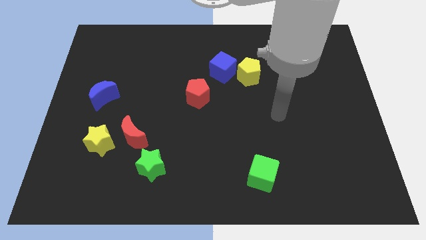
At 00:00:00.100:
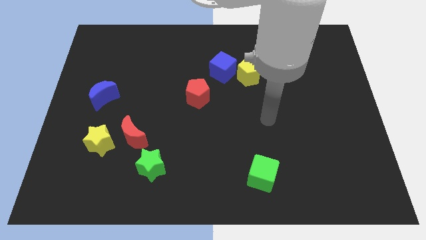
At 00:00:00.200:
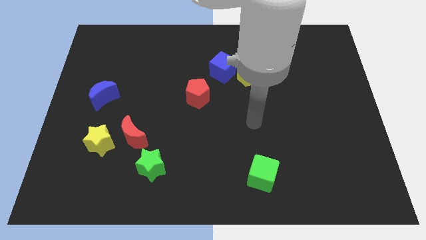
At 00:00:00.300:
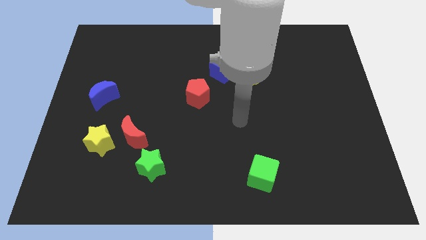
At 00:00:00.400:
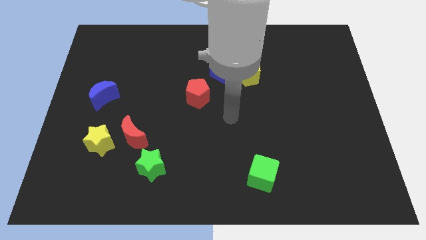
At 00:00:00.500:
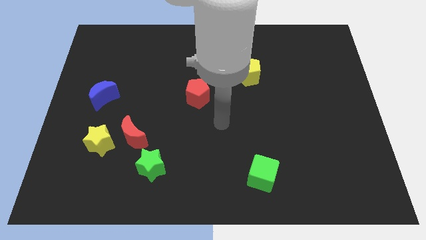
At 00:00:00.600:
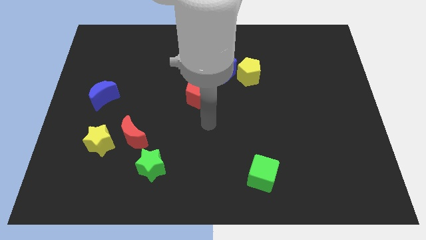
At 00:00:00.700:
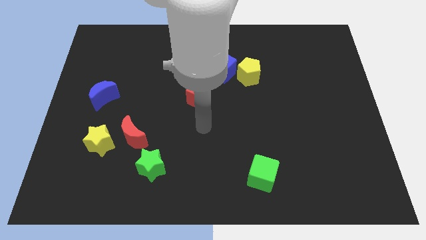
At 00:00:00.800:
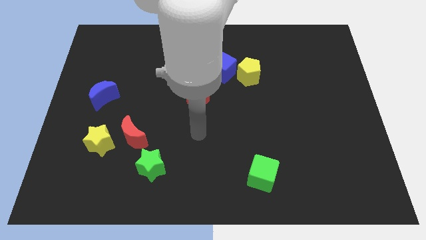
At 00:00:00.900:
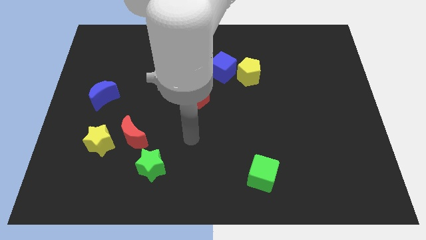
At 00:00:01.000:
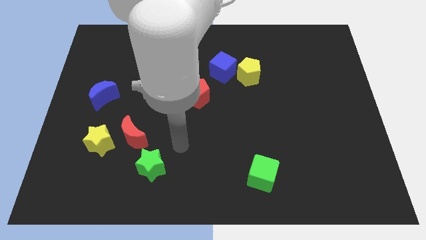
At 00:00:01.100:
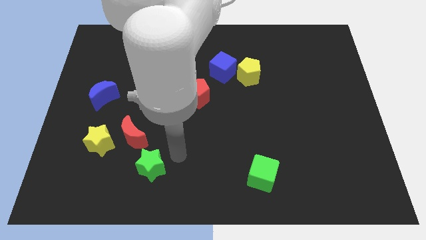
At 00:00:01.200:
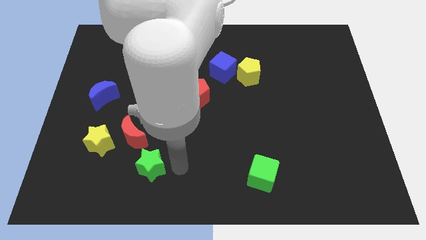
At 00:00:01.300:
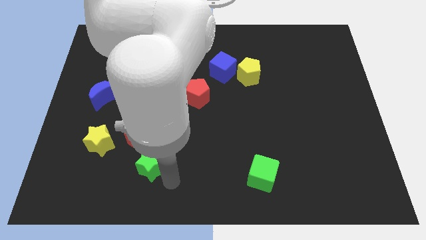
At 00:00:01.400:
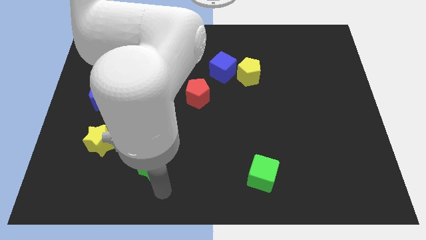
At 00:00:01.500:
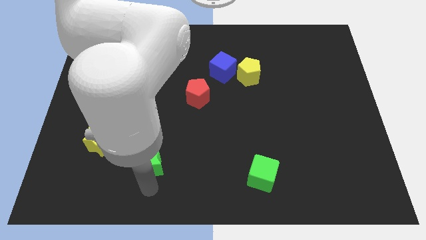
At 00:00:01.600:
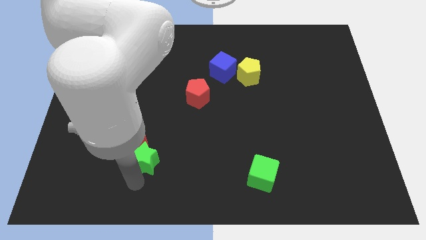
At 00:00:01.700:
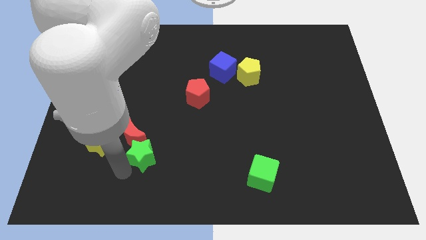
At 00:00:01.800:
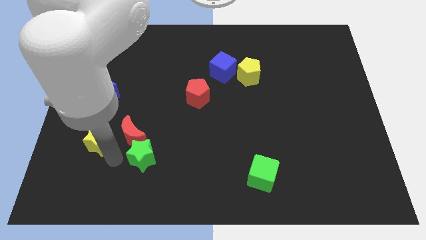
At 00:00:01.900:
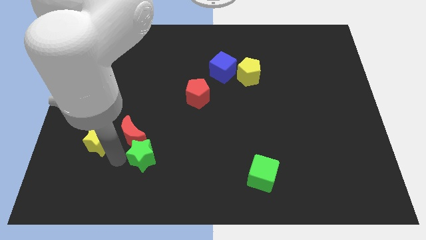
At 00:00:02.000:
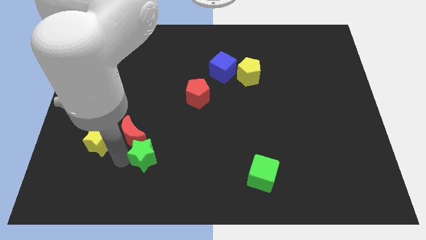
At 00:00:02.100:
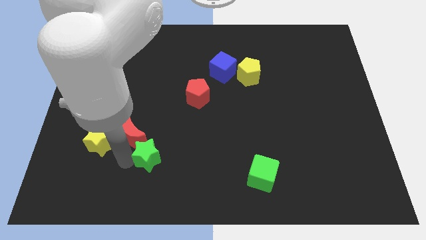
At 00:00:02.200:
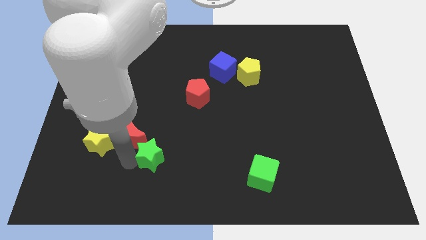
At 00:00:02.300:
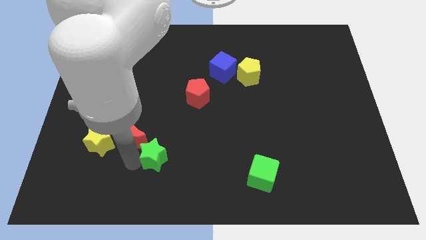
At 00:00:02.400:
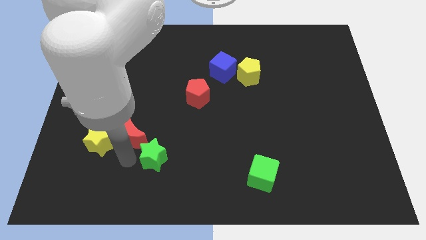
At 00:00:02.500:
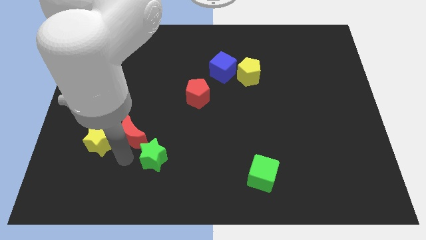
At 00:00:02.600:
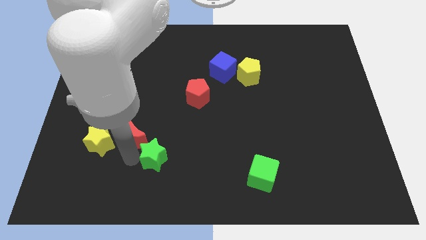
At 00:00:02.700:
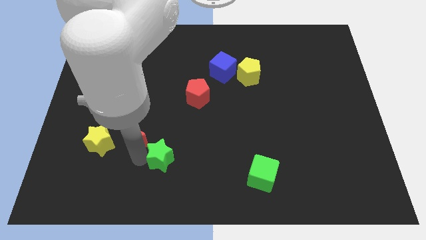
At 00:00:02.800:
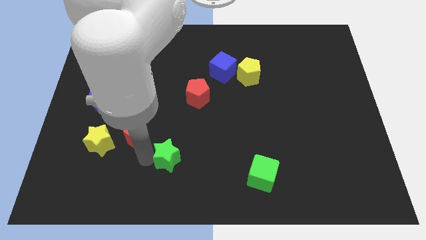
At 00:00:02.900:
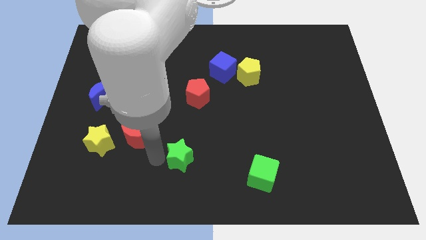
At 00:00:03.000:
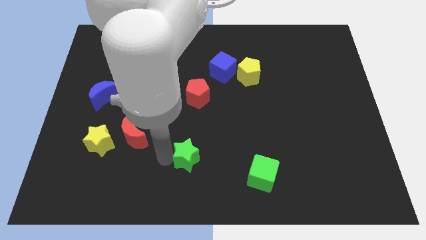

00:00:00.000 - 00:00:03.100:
slide the green star right slightly

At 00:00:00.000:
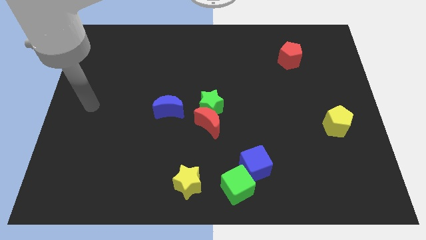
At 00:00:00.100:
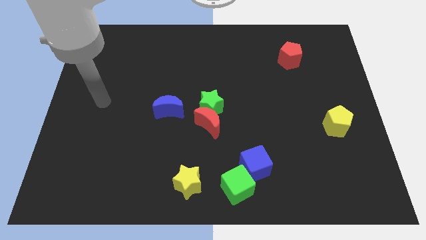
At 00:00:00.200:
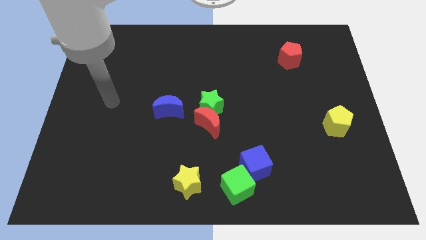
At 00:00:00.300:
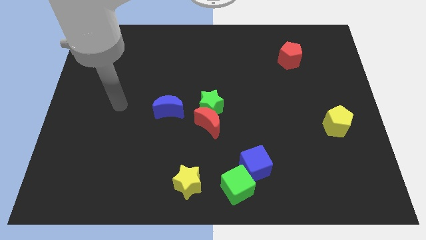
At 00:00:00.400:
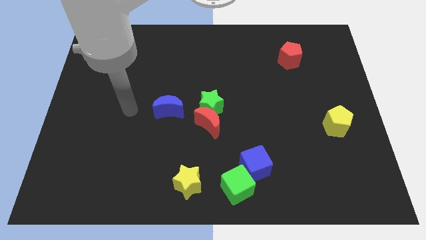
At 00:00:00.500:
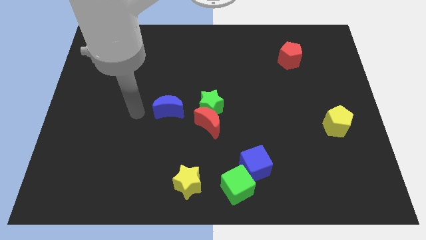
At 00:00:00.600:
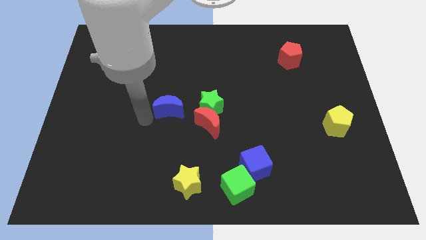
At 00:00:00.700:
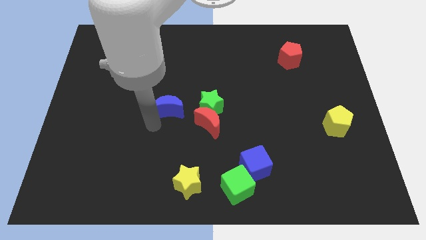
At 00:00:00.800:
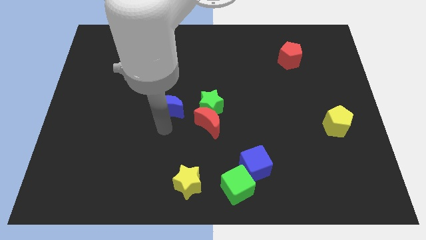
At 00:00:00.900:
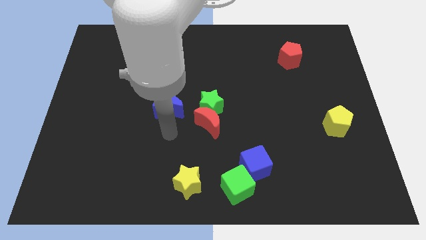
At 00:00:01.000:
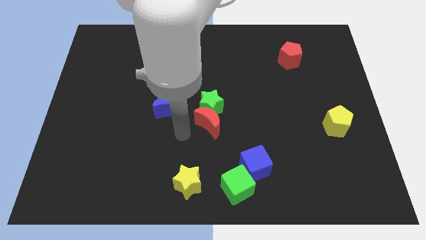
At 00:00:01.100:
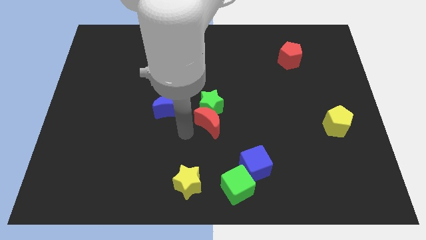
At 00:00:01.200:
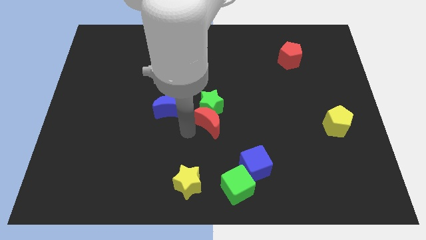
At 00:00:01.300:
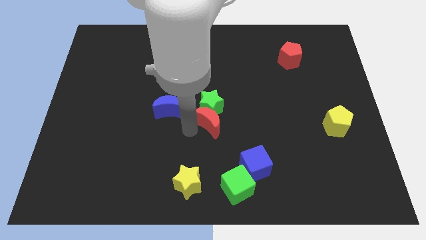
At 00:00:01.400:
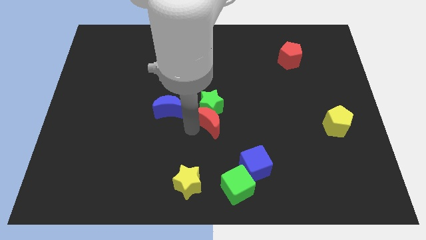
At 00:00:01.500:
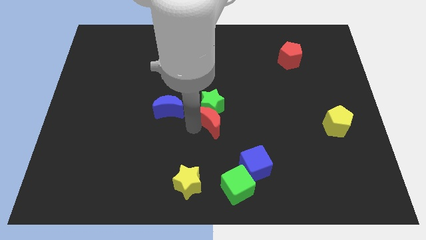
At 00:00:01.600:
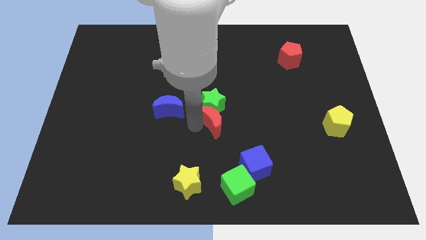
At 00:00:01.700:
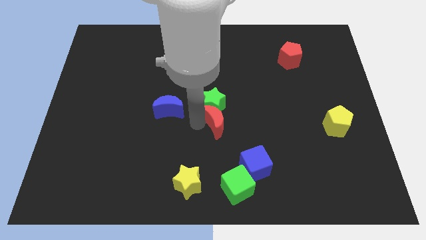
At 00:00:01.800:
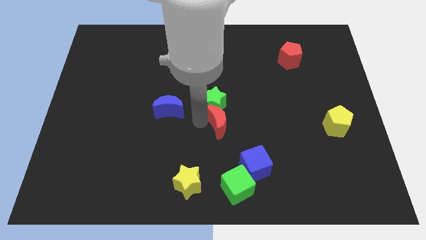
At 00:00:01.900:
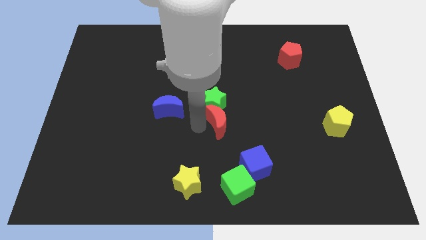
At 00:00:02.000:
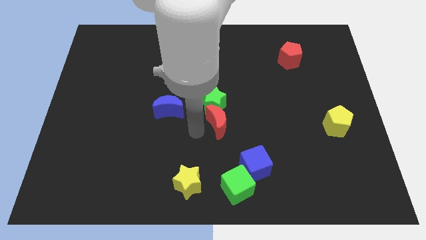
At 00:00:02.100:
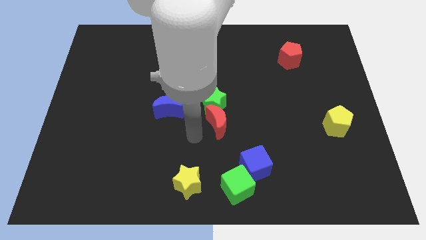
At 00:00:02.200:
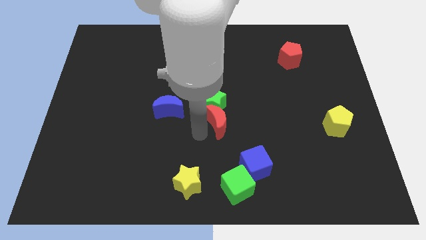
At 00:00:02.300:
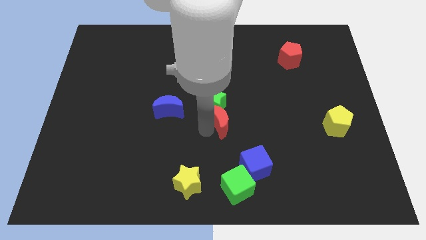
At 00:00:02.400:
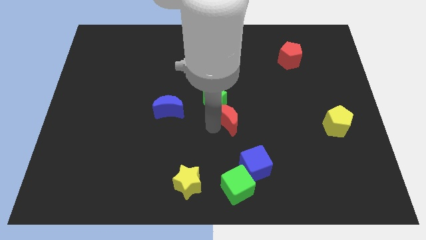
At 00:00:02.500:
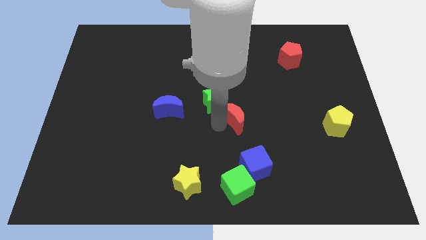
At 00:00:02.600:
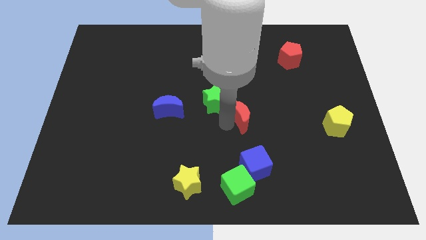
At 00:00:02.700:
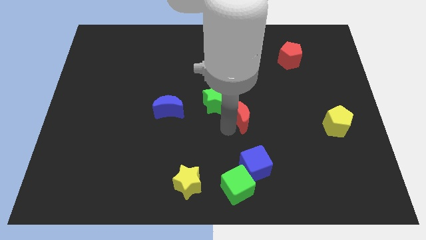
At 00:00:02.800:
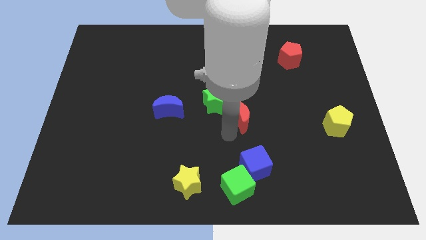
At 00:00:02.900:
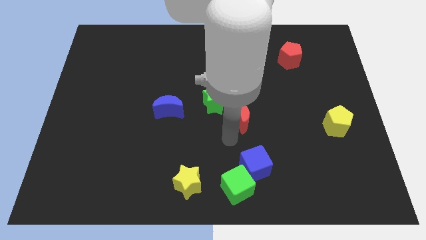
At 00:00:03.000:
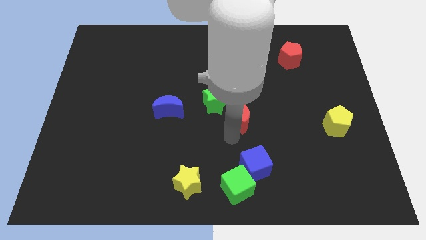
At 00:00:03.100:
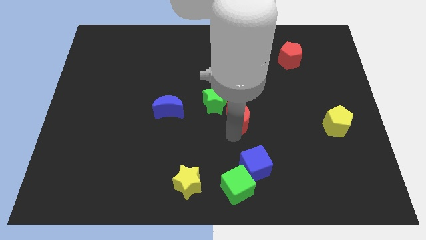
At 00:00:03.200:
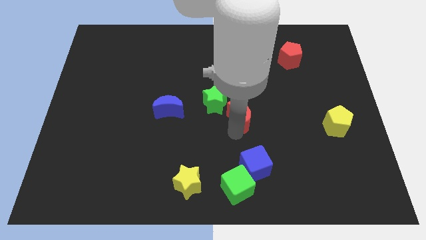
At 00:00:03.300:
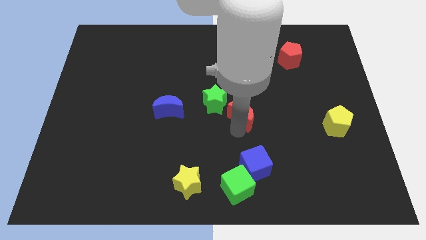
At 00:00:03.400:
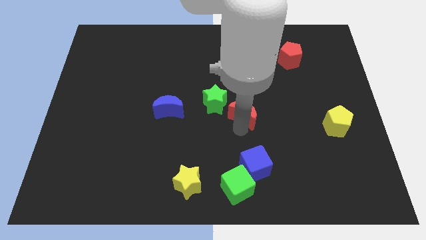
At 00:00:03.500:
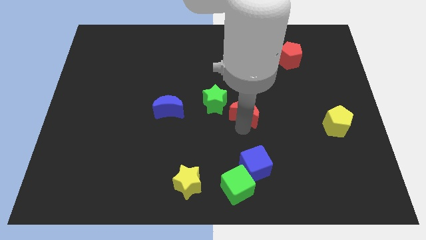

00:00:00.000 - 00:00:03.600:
push the red moon slightly up and right diagonally

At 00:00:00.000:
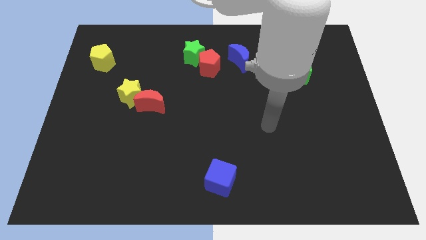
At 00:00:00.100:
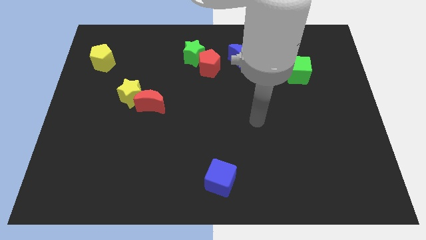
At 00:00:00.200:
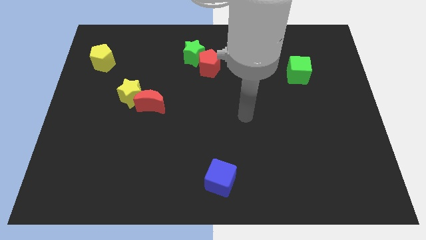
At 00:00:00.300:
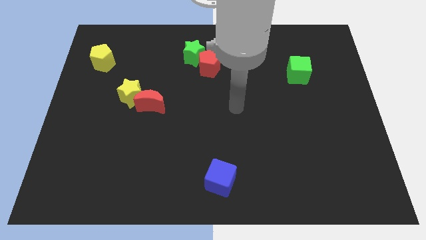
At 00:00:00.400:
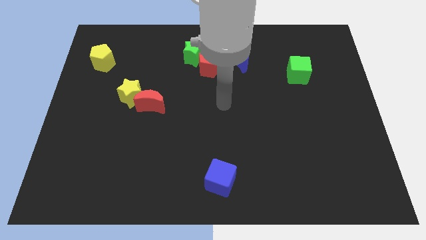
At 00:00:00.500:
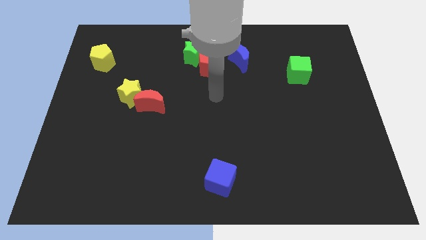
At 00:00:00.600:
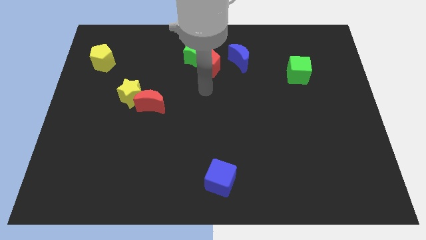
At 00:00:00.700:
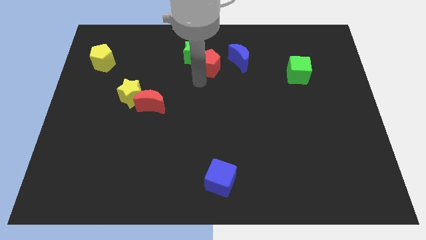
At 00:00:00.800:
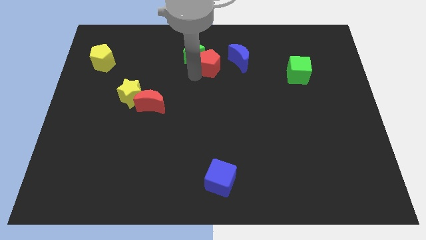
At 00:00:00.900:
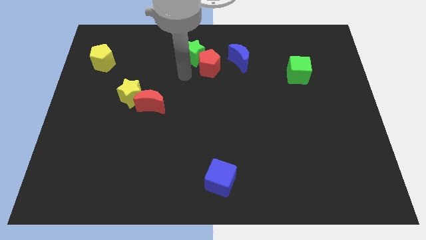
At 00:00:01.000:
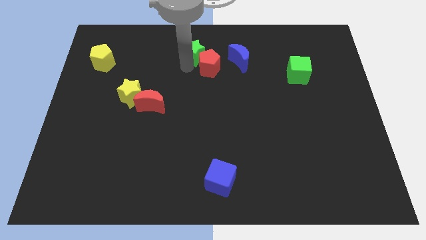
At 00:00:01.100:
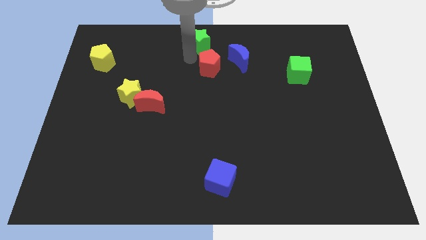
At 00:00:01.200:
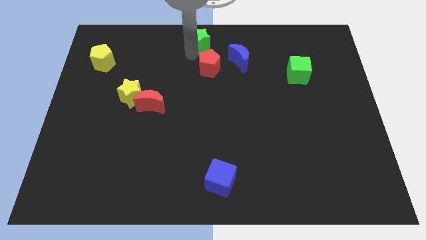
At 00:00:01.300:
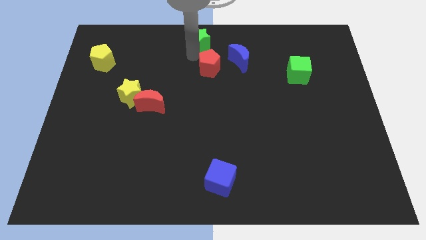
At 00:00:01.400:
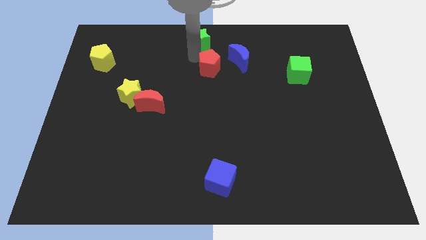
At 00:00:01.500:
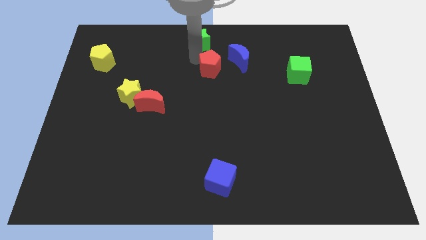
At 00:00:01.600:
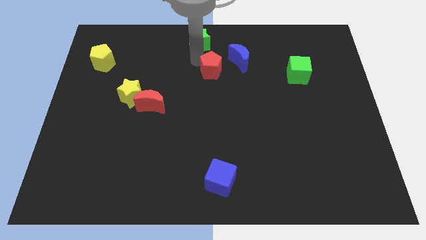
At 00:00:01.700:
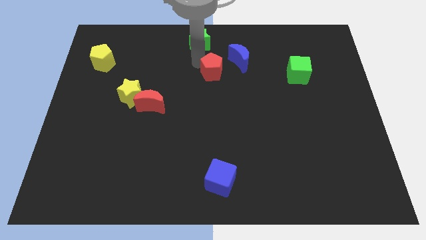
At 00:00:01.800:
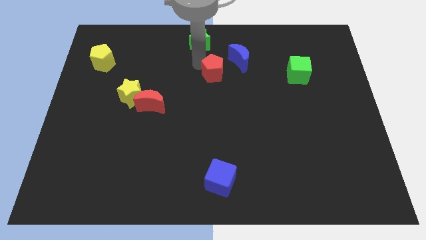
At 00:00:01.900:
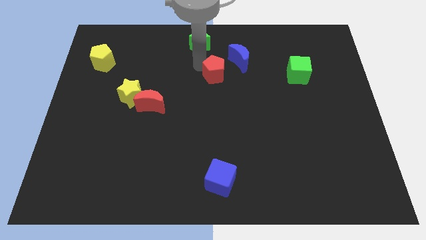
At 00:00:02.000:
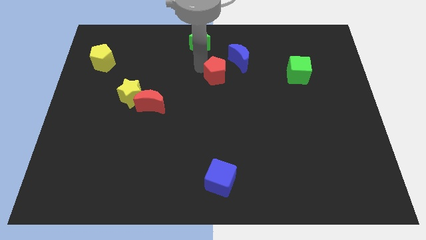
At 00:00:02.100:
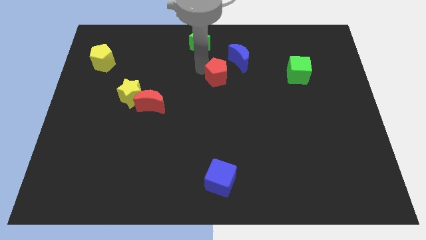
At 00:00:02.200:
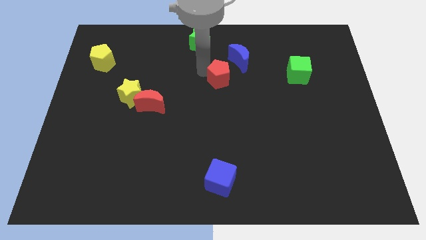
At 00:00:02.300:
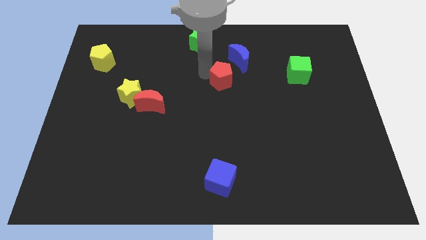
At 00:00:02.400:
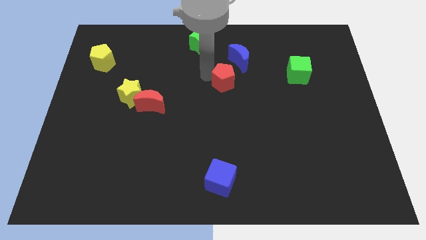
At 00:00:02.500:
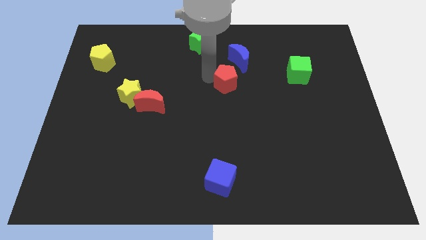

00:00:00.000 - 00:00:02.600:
push the red pentagon downwards and then to the right a little
